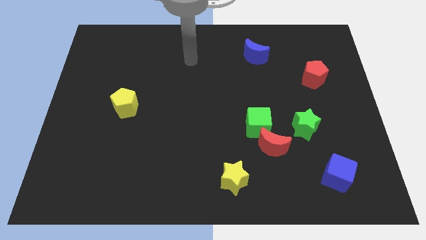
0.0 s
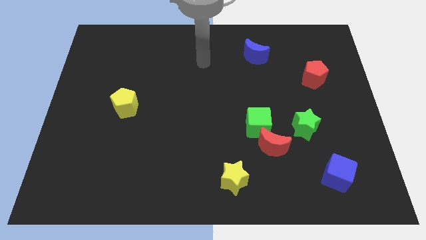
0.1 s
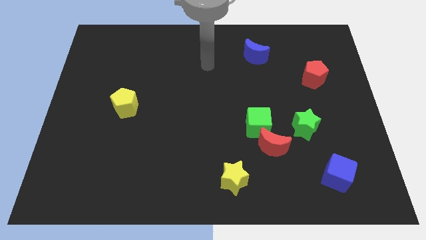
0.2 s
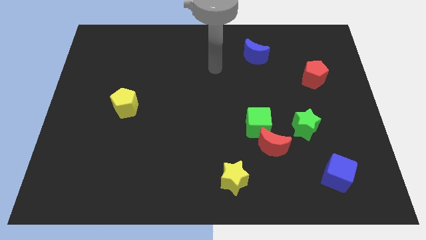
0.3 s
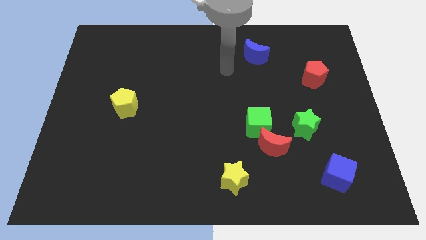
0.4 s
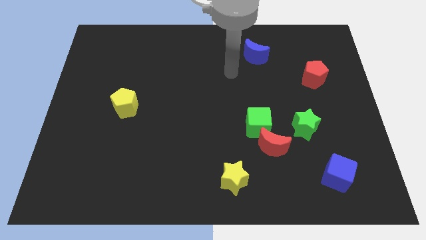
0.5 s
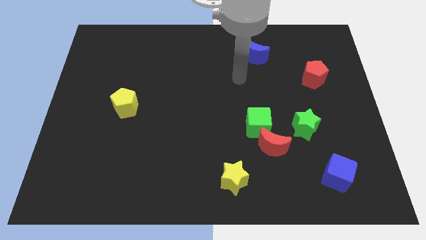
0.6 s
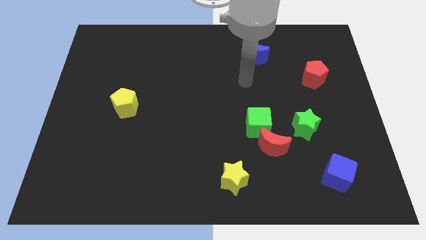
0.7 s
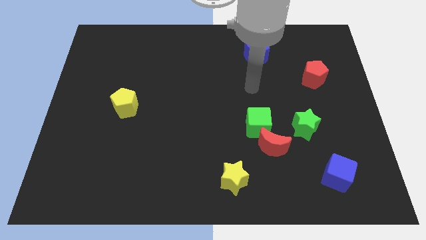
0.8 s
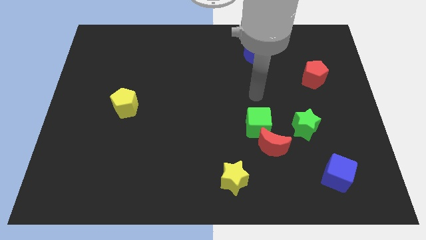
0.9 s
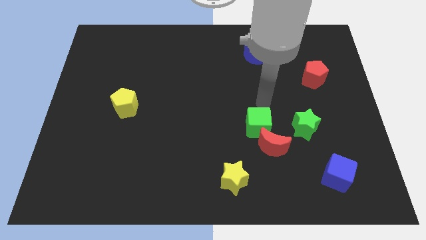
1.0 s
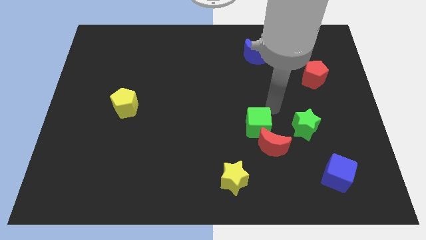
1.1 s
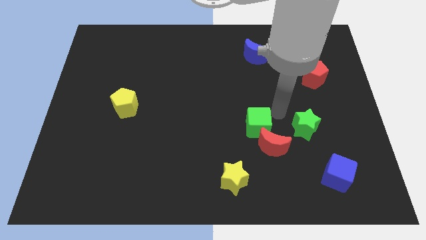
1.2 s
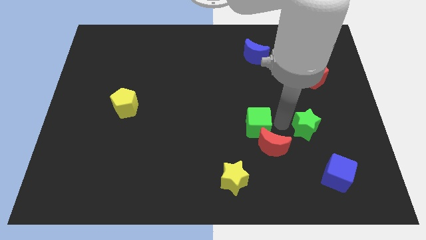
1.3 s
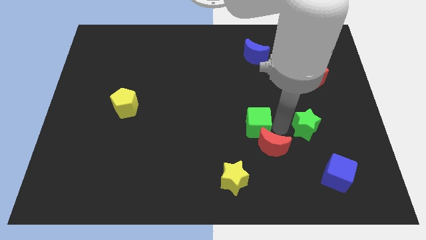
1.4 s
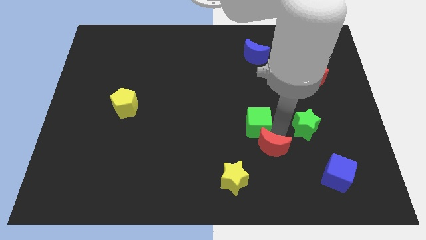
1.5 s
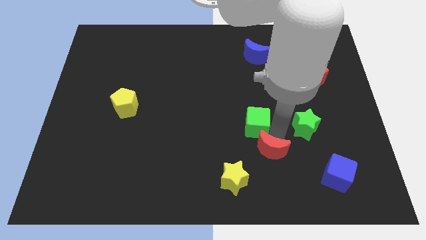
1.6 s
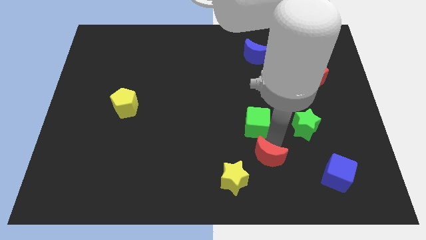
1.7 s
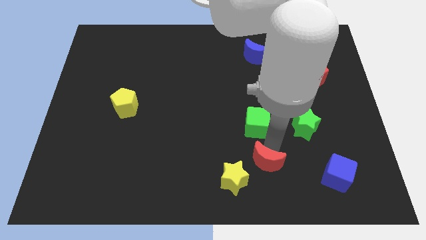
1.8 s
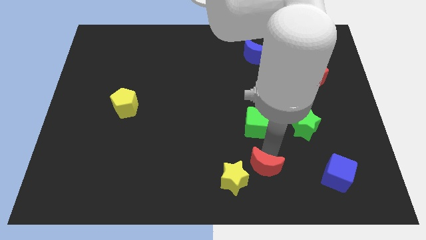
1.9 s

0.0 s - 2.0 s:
separate the red moon from the green cube and green star

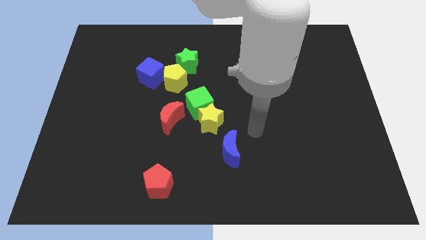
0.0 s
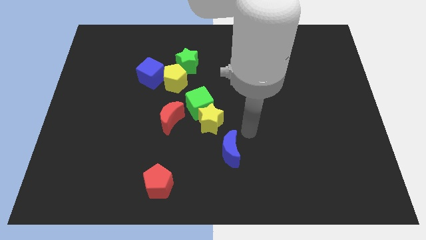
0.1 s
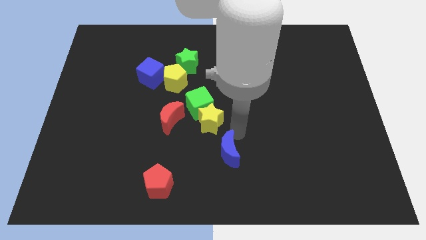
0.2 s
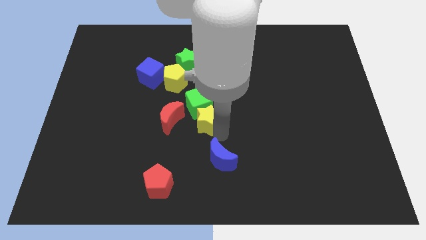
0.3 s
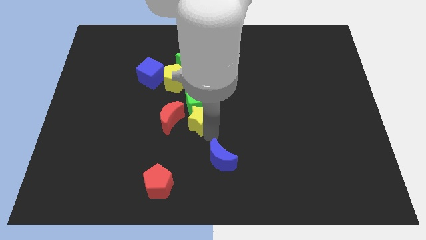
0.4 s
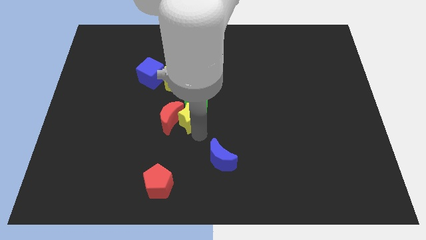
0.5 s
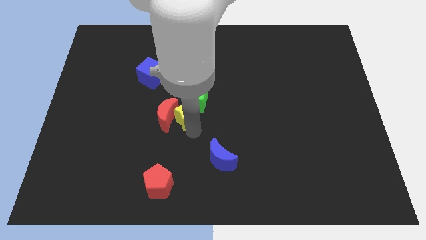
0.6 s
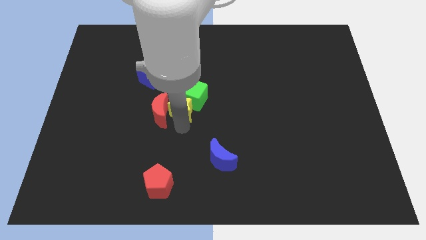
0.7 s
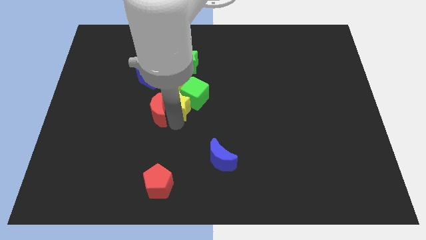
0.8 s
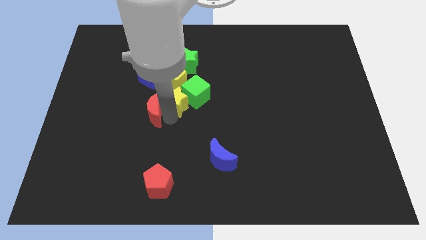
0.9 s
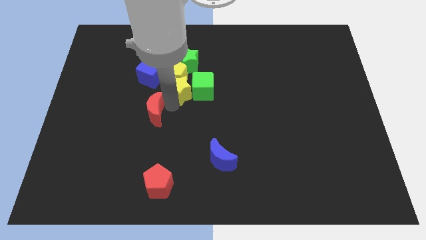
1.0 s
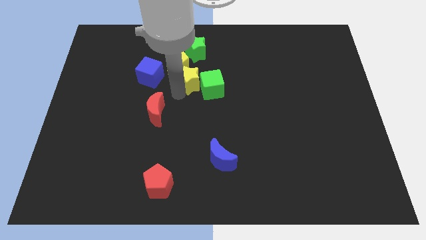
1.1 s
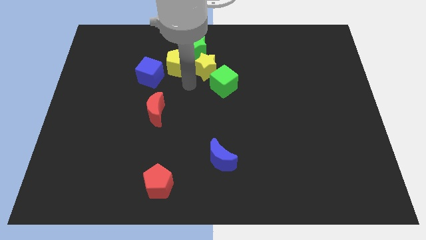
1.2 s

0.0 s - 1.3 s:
separate the green cube from the group of blocks

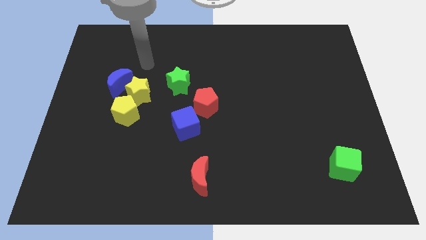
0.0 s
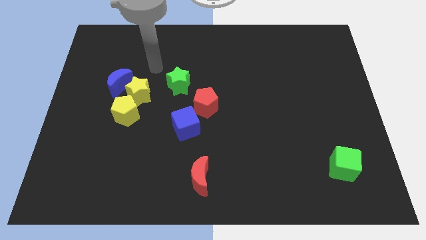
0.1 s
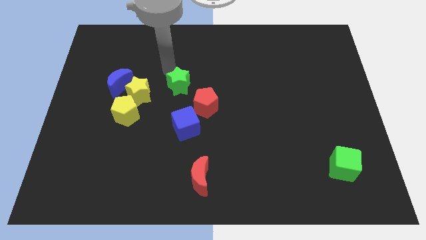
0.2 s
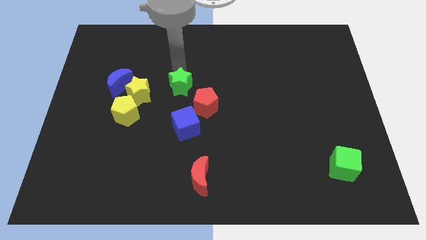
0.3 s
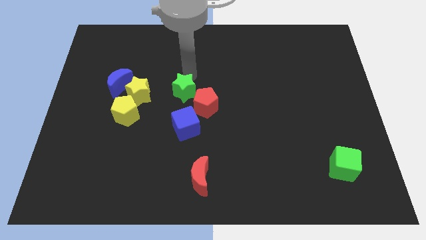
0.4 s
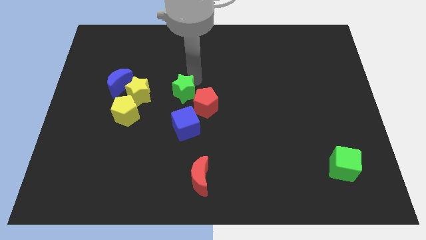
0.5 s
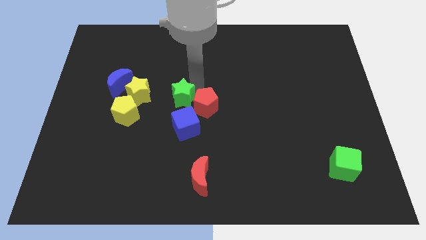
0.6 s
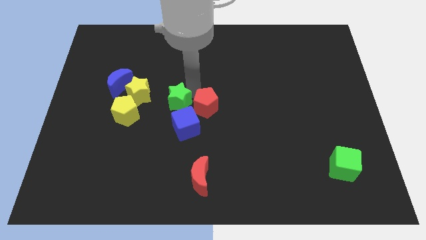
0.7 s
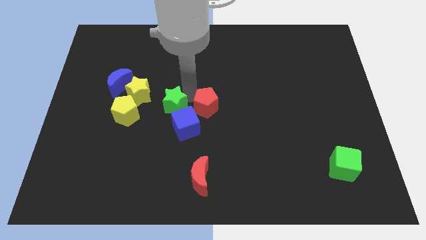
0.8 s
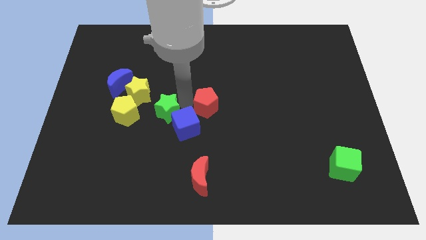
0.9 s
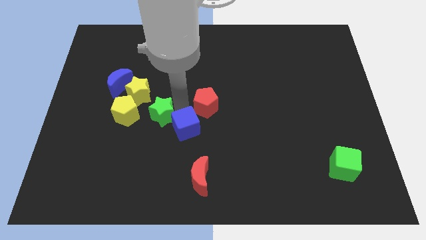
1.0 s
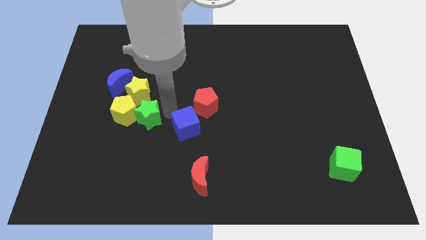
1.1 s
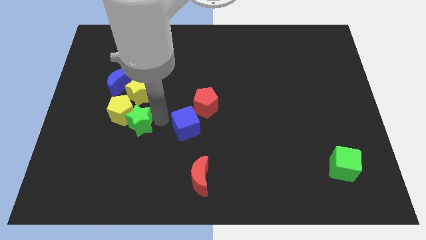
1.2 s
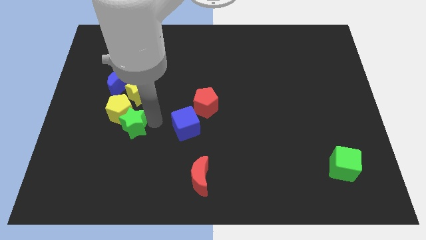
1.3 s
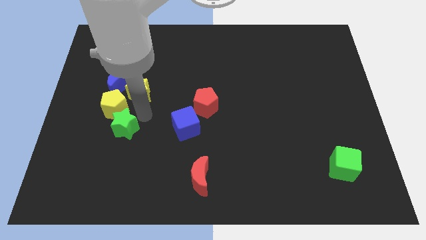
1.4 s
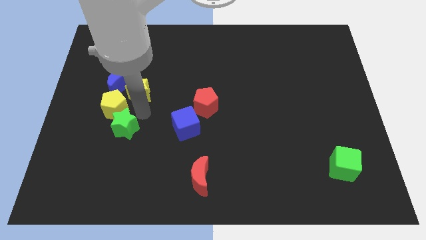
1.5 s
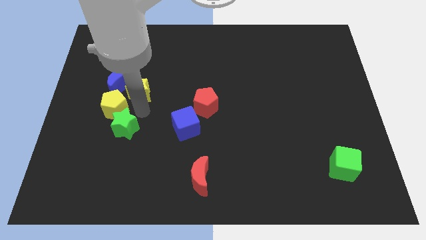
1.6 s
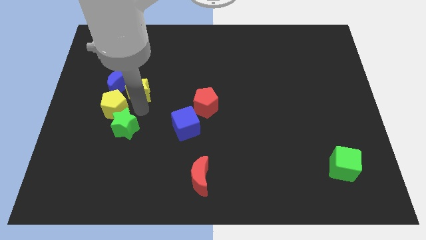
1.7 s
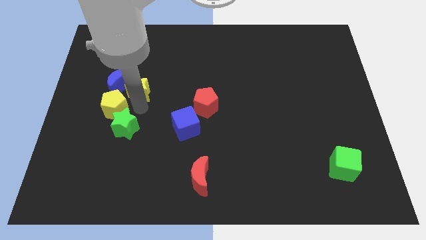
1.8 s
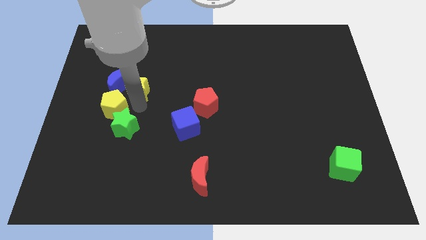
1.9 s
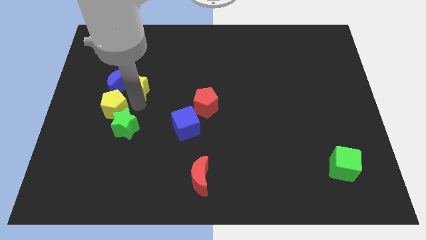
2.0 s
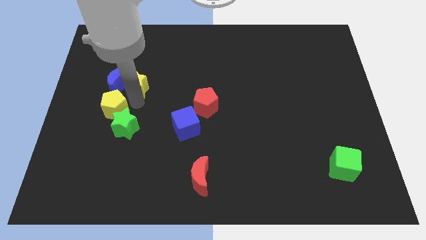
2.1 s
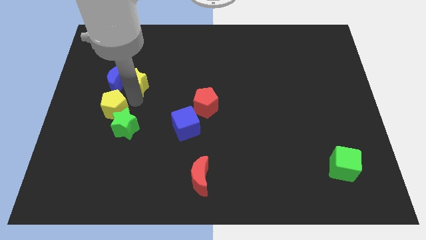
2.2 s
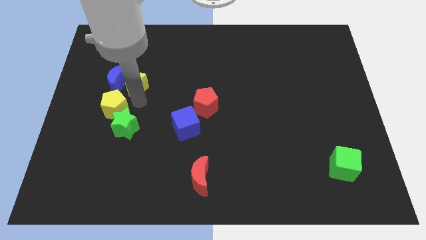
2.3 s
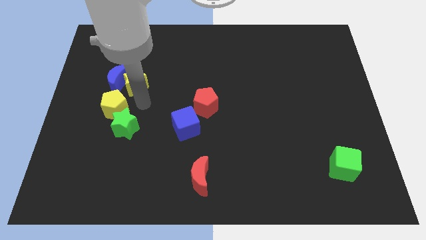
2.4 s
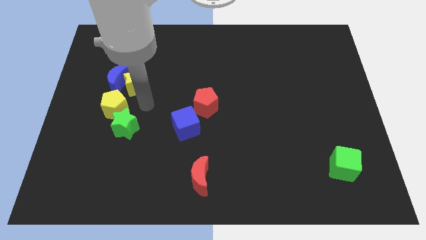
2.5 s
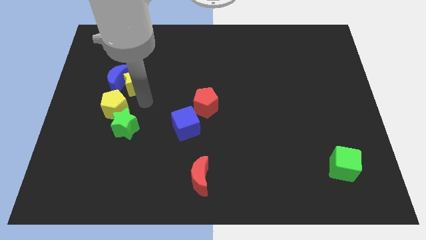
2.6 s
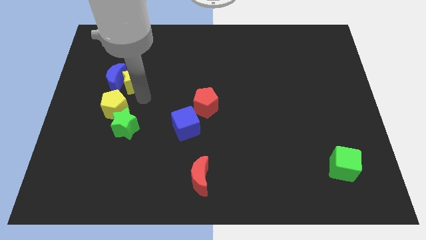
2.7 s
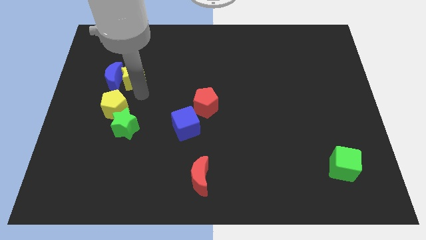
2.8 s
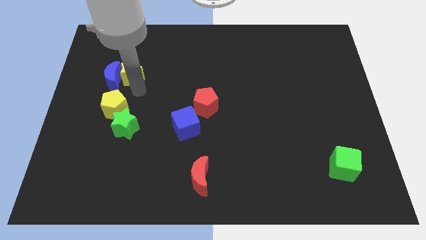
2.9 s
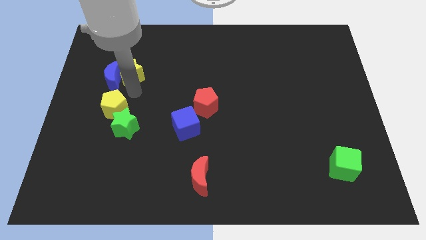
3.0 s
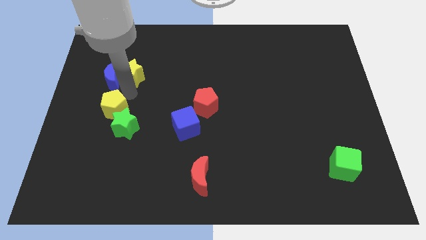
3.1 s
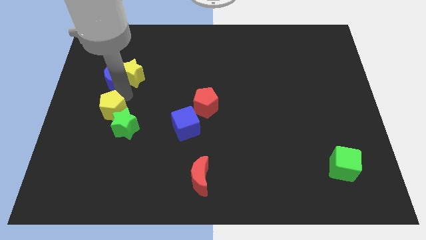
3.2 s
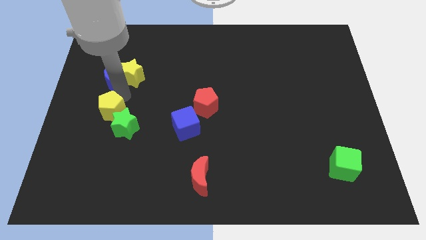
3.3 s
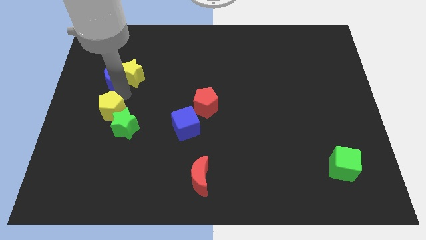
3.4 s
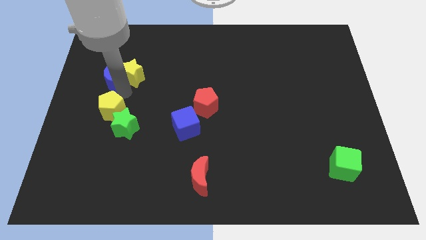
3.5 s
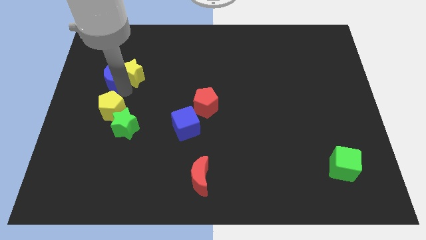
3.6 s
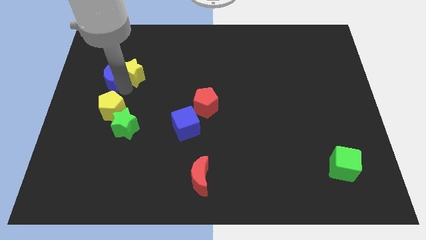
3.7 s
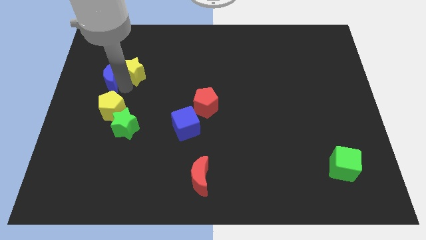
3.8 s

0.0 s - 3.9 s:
move the yellow star away from the group

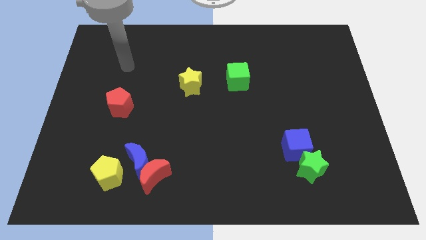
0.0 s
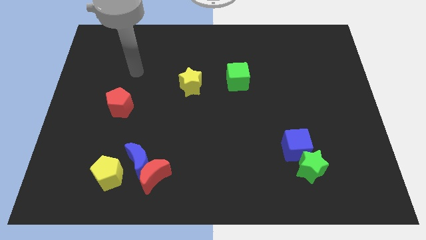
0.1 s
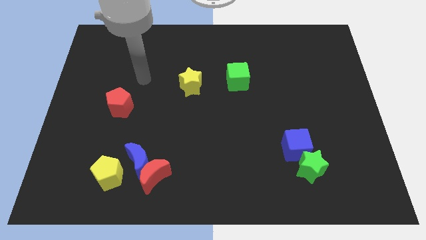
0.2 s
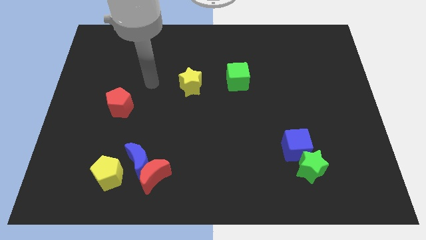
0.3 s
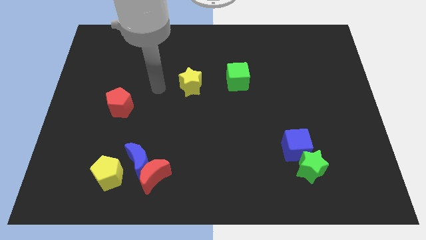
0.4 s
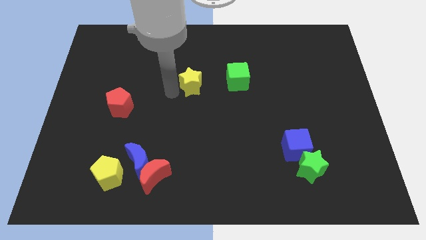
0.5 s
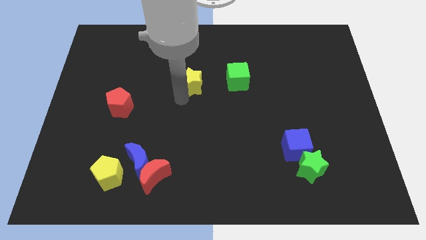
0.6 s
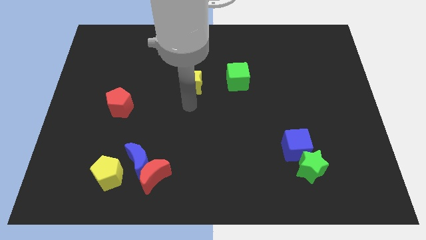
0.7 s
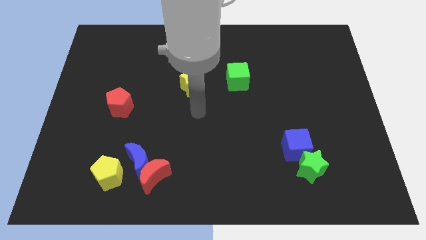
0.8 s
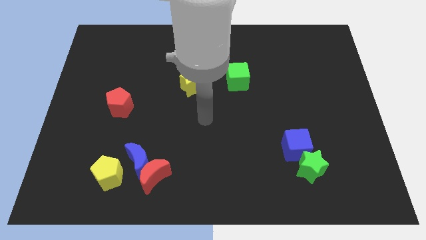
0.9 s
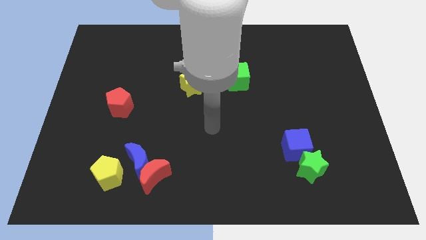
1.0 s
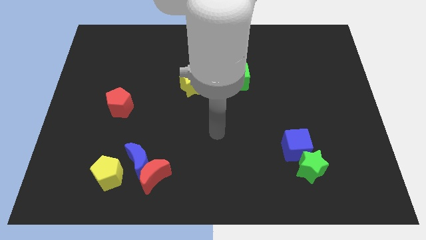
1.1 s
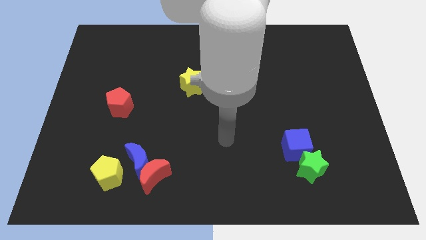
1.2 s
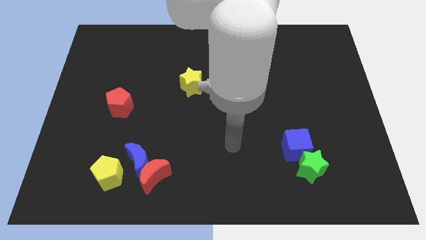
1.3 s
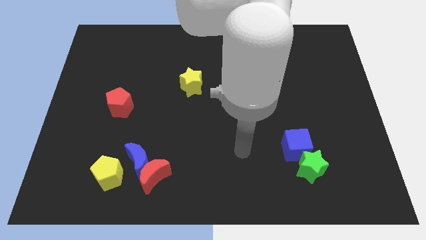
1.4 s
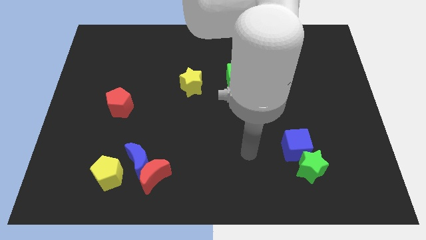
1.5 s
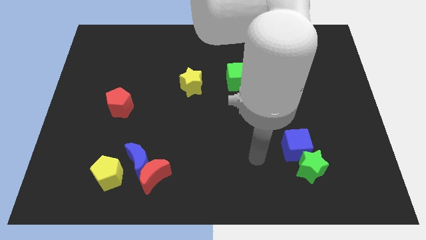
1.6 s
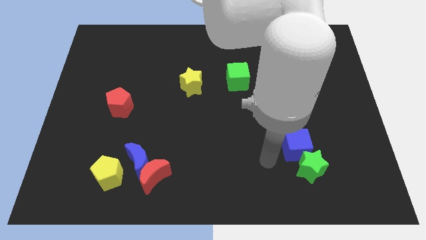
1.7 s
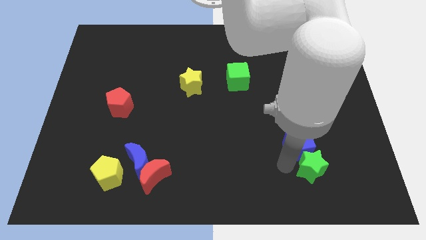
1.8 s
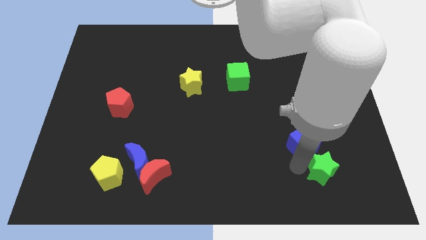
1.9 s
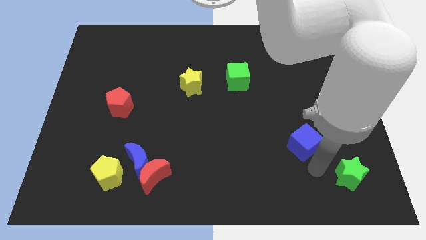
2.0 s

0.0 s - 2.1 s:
move the blue cube away from the green star

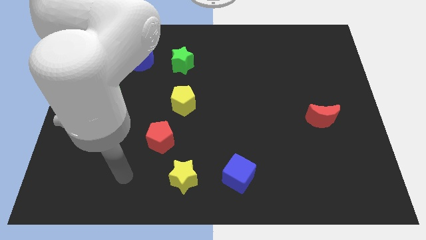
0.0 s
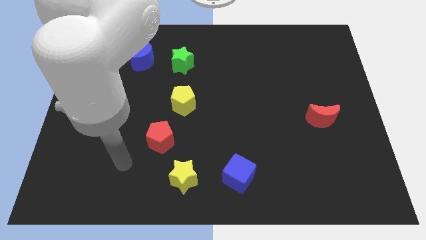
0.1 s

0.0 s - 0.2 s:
pull the blue moon apart from the green star
